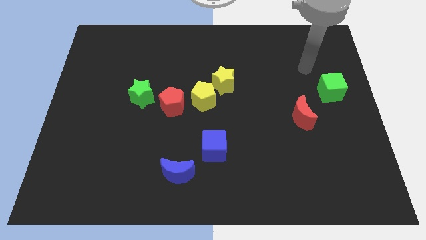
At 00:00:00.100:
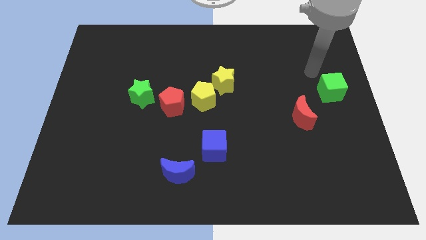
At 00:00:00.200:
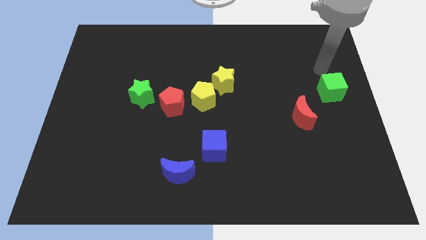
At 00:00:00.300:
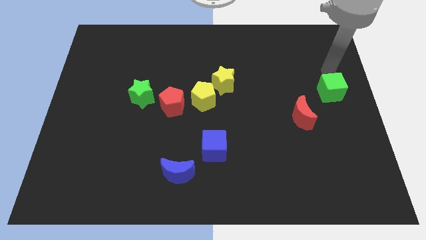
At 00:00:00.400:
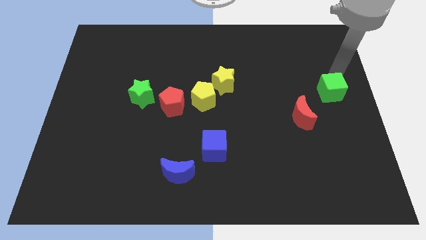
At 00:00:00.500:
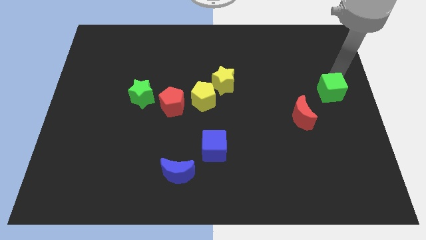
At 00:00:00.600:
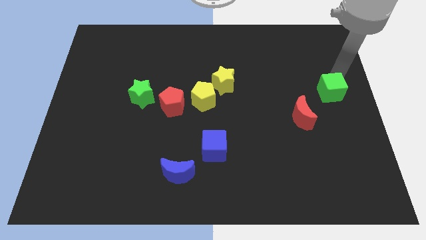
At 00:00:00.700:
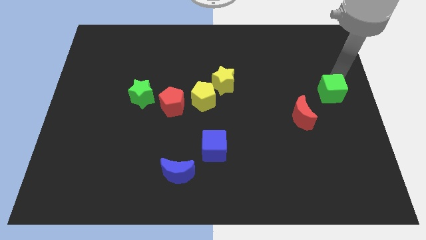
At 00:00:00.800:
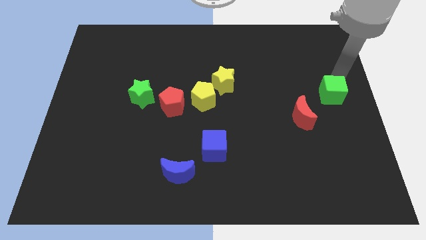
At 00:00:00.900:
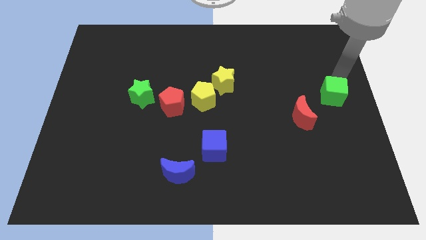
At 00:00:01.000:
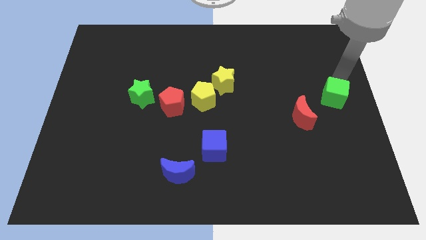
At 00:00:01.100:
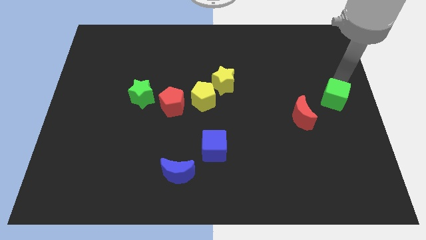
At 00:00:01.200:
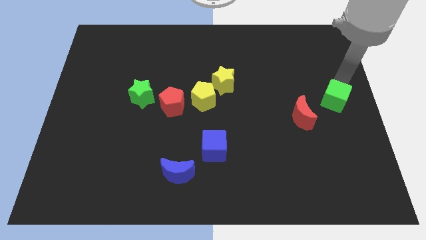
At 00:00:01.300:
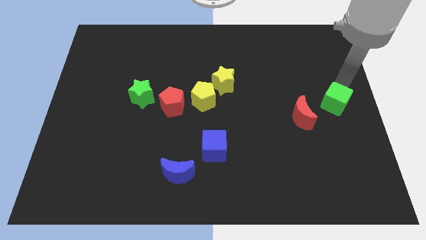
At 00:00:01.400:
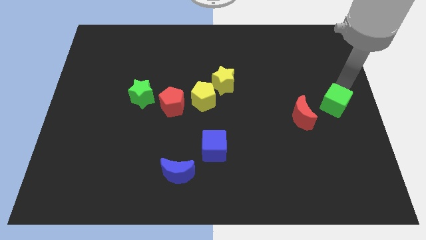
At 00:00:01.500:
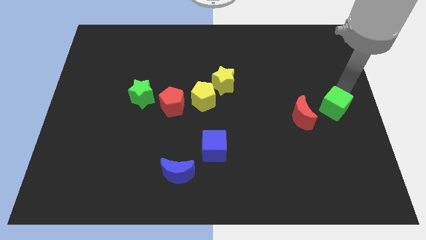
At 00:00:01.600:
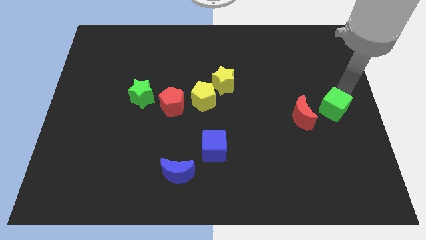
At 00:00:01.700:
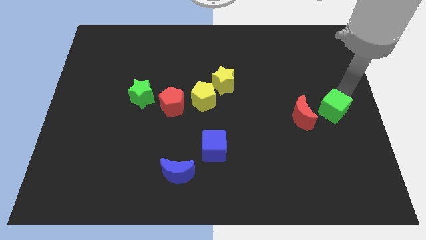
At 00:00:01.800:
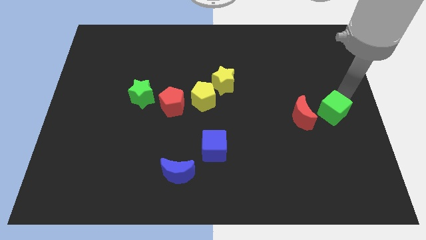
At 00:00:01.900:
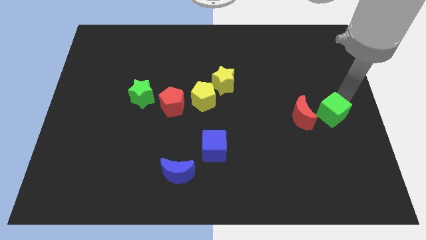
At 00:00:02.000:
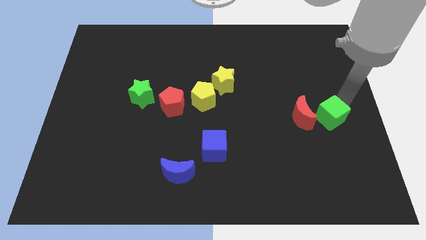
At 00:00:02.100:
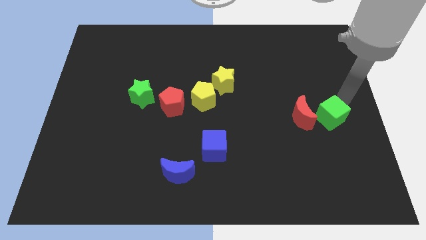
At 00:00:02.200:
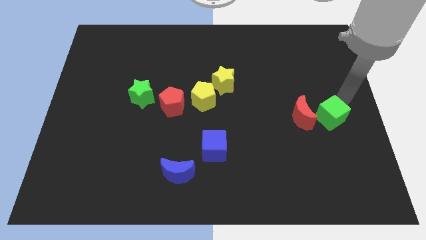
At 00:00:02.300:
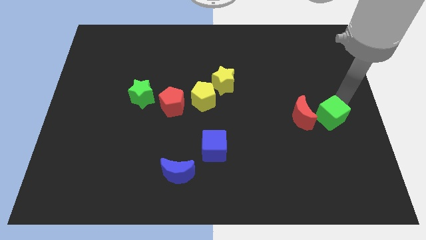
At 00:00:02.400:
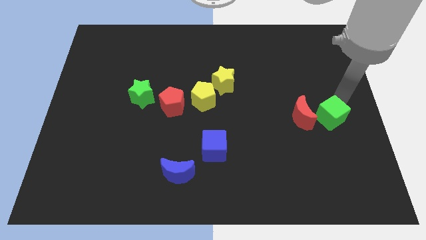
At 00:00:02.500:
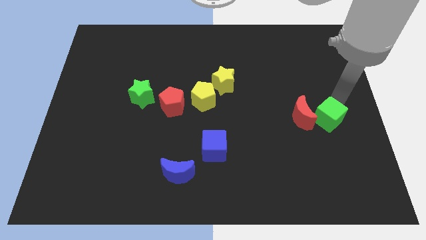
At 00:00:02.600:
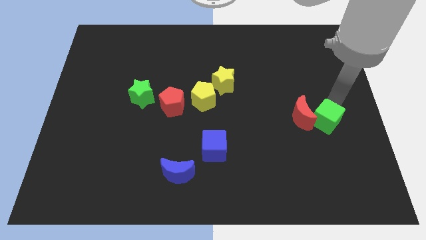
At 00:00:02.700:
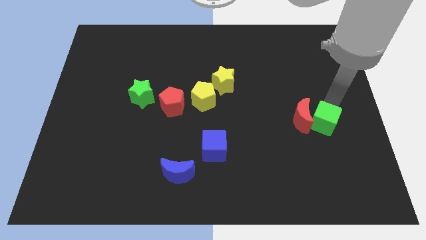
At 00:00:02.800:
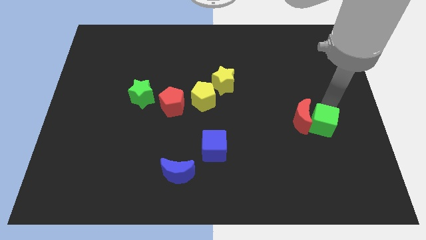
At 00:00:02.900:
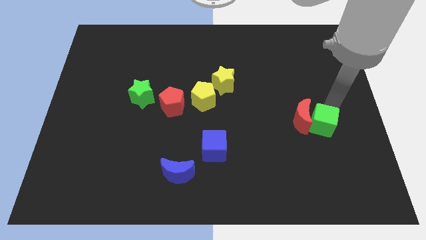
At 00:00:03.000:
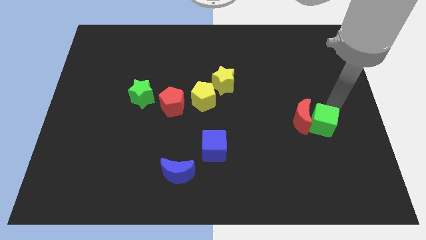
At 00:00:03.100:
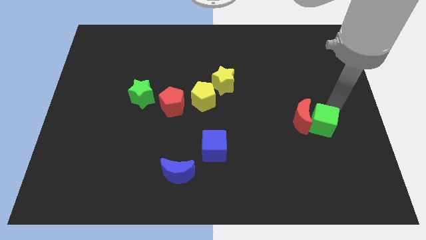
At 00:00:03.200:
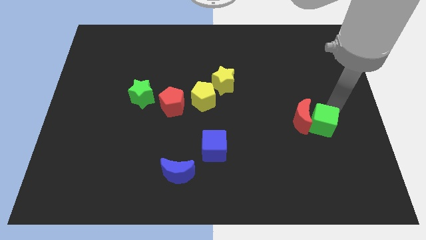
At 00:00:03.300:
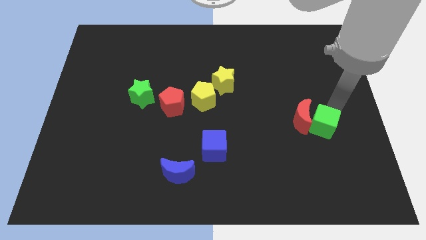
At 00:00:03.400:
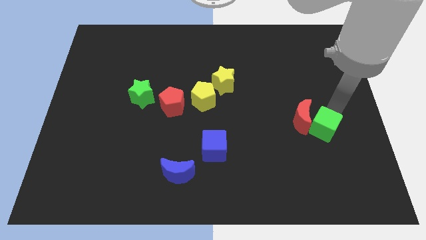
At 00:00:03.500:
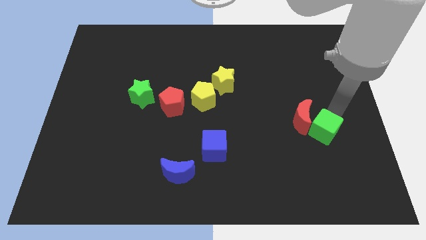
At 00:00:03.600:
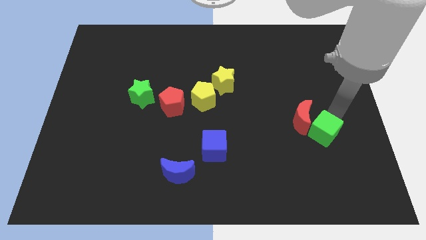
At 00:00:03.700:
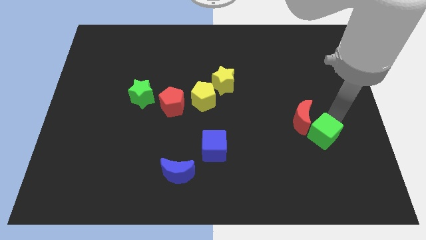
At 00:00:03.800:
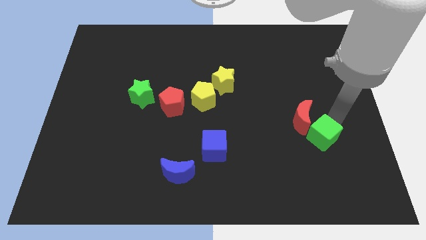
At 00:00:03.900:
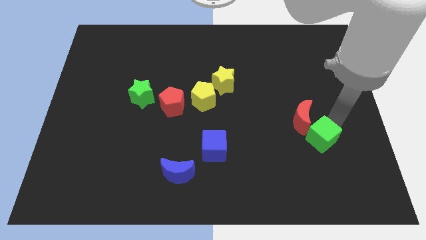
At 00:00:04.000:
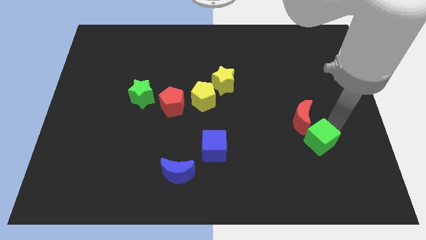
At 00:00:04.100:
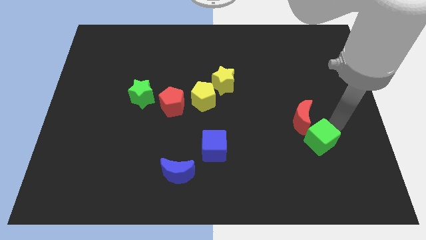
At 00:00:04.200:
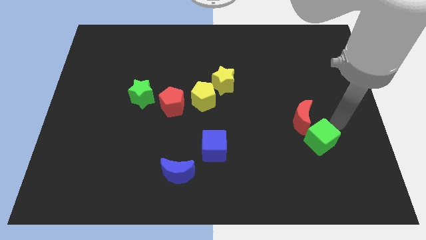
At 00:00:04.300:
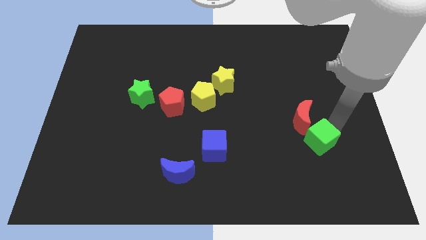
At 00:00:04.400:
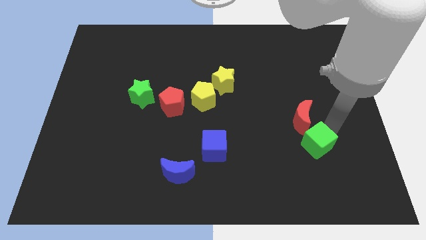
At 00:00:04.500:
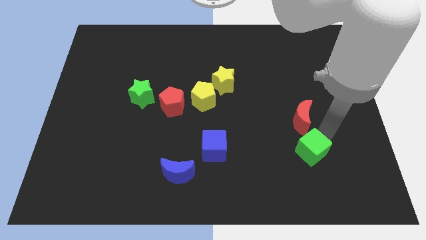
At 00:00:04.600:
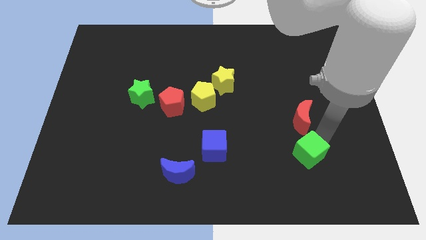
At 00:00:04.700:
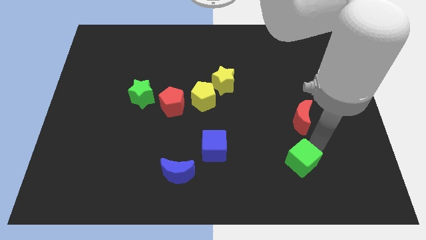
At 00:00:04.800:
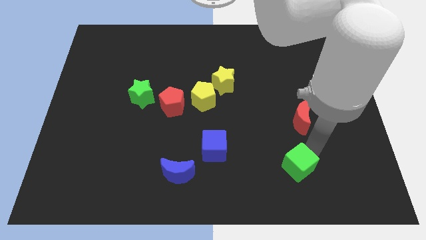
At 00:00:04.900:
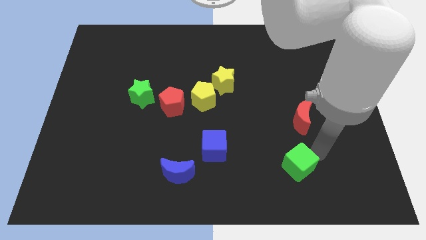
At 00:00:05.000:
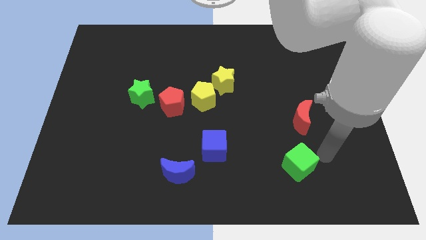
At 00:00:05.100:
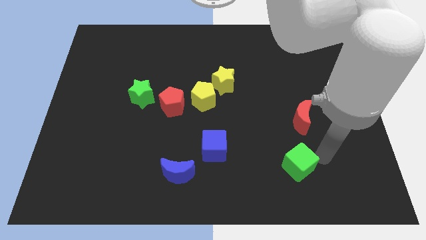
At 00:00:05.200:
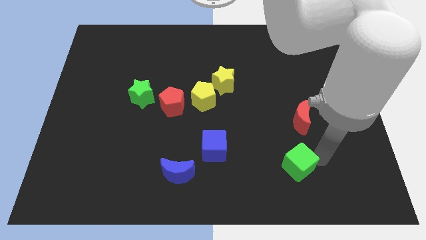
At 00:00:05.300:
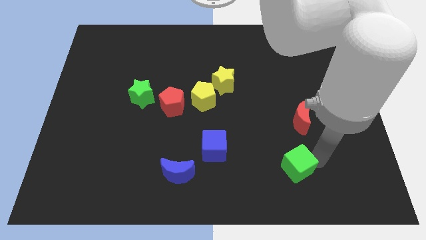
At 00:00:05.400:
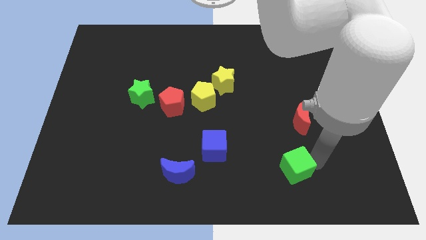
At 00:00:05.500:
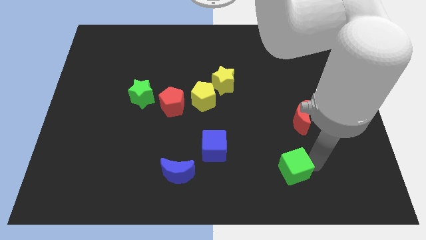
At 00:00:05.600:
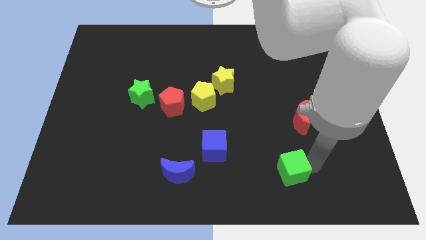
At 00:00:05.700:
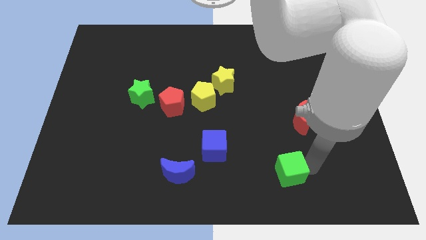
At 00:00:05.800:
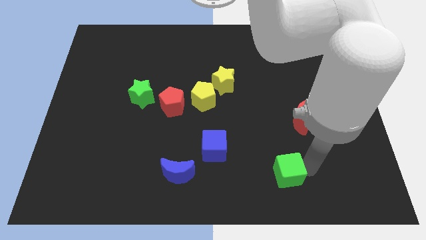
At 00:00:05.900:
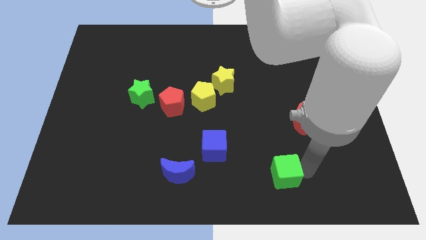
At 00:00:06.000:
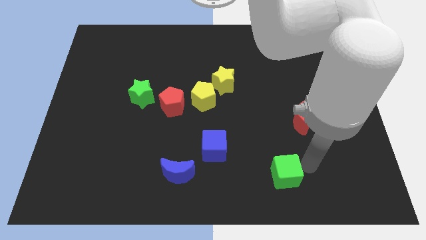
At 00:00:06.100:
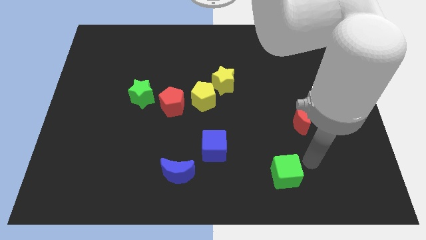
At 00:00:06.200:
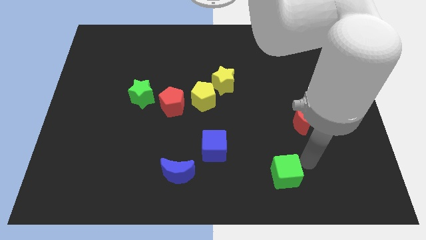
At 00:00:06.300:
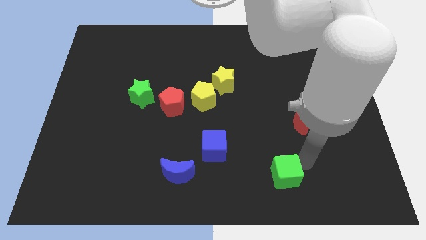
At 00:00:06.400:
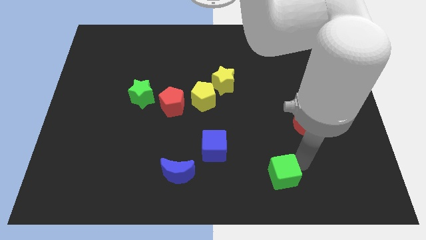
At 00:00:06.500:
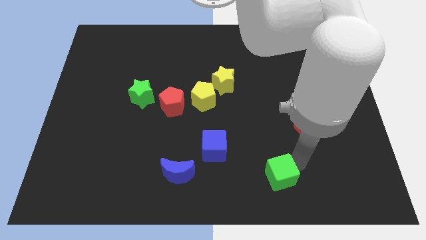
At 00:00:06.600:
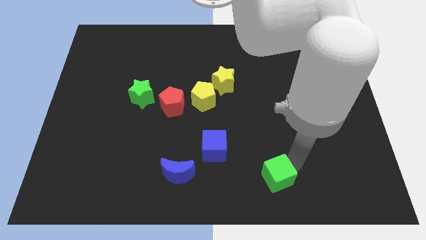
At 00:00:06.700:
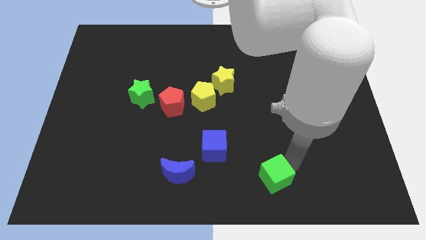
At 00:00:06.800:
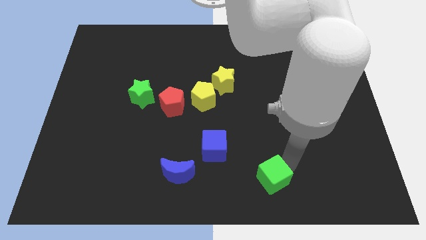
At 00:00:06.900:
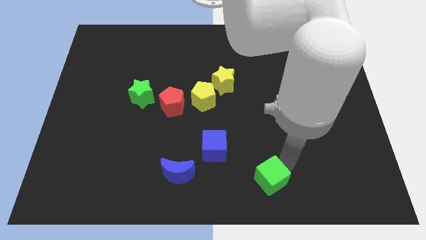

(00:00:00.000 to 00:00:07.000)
put the green cube to the bottom side
